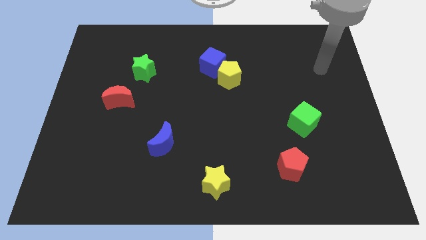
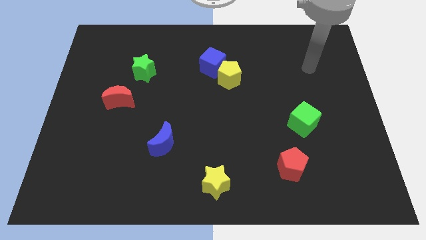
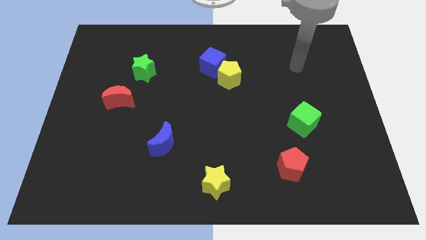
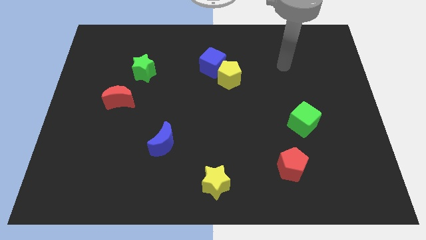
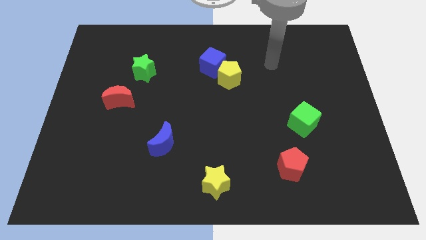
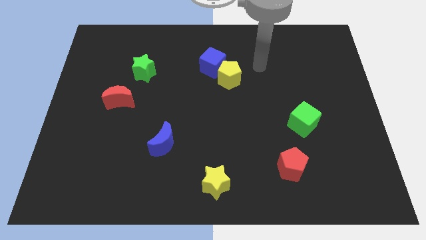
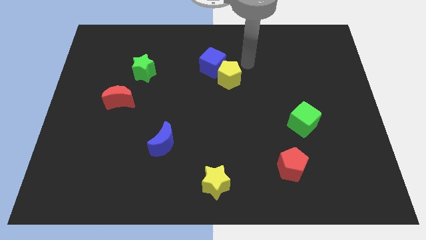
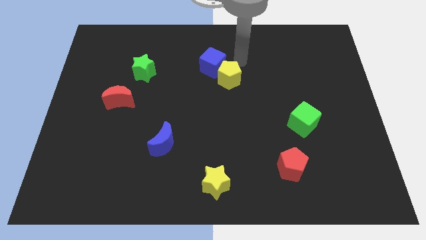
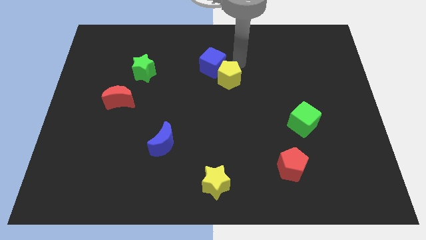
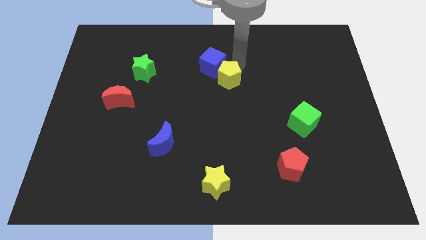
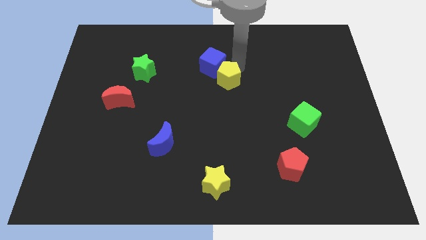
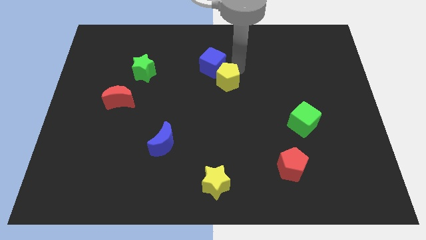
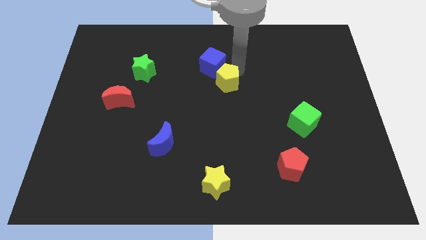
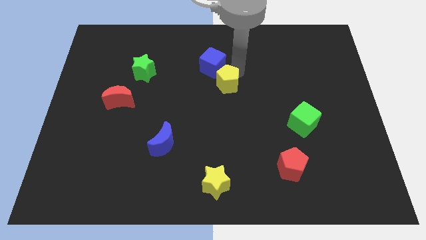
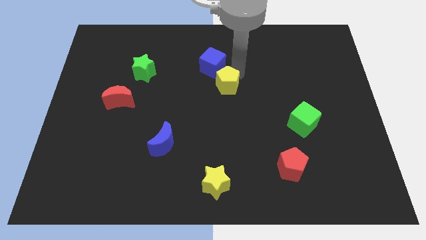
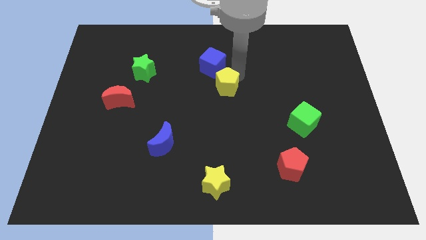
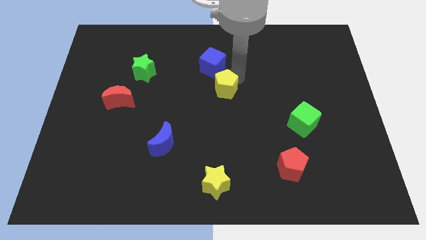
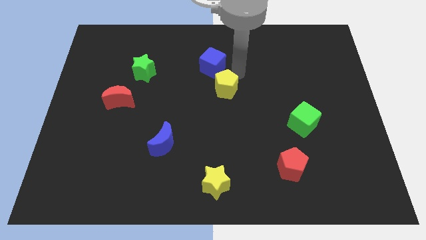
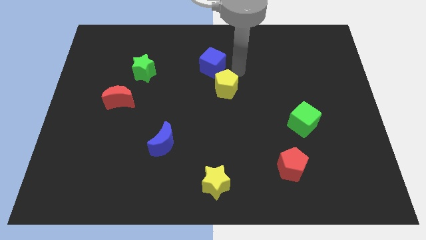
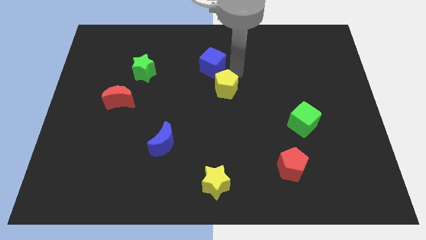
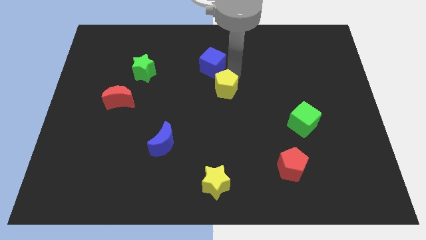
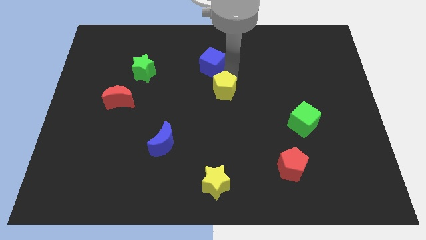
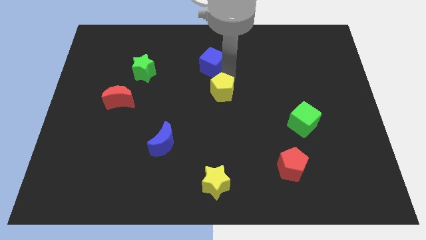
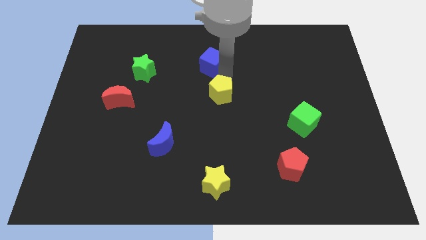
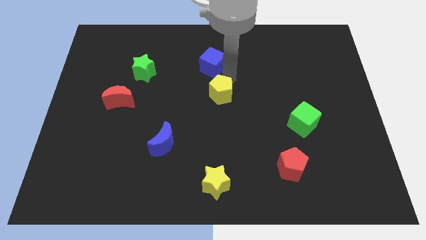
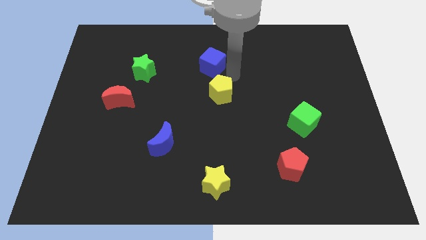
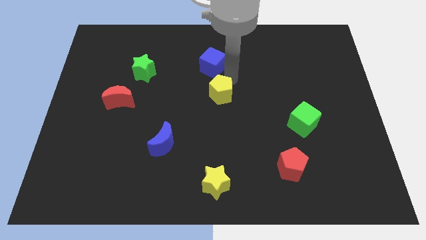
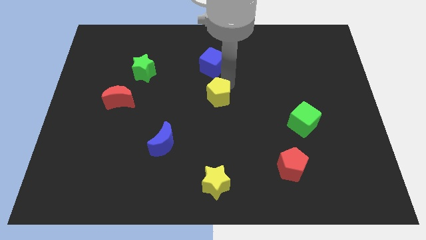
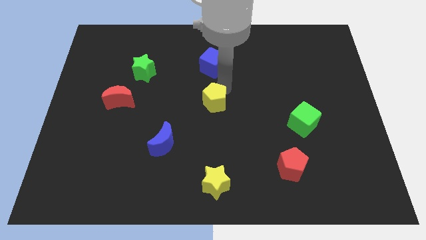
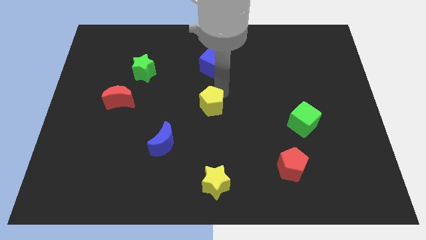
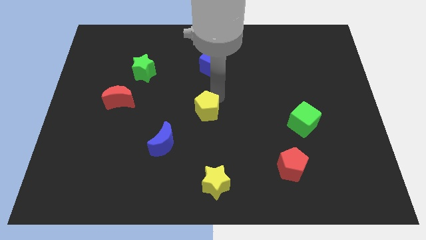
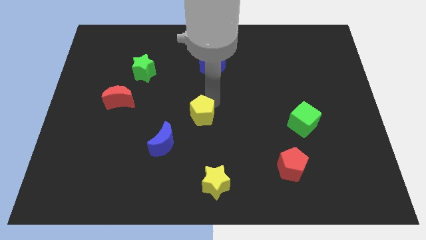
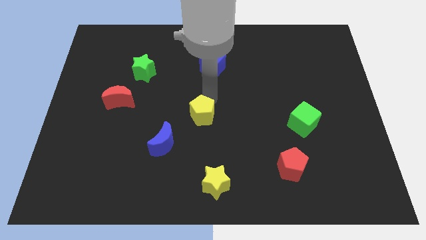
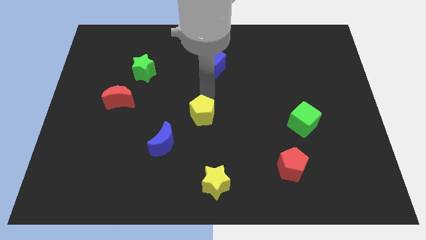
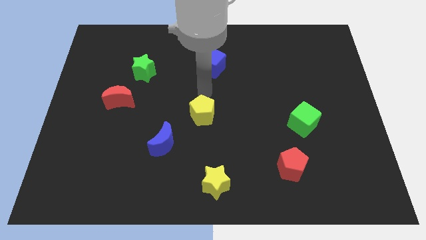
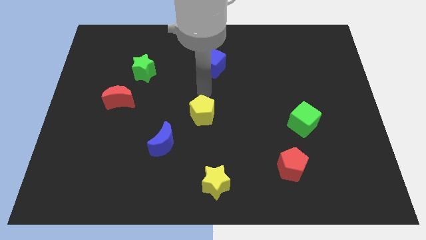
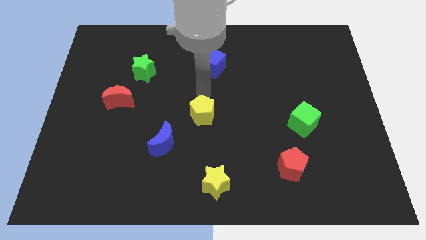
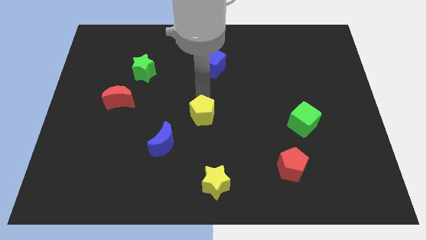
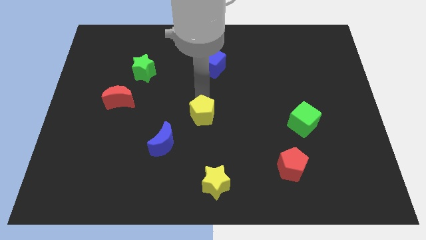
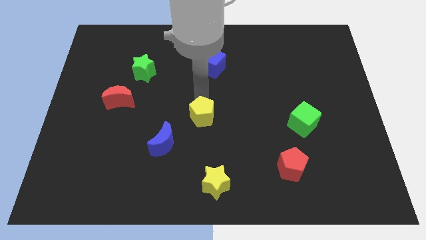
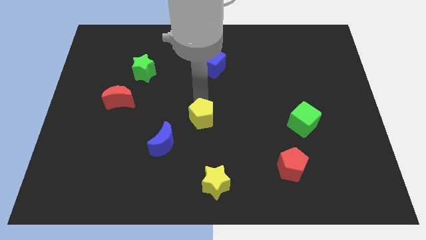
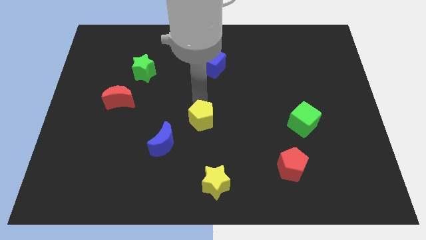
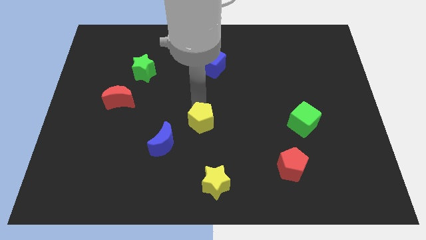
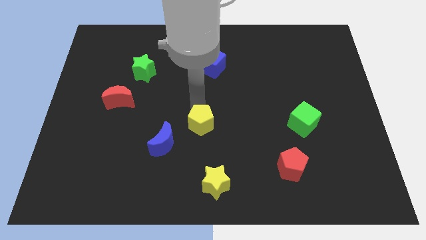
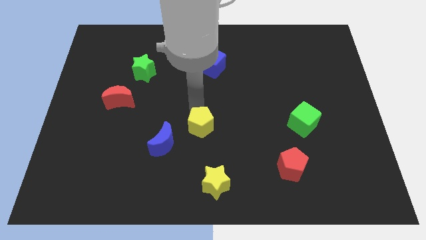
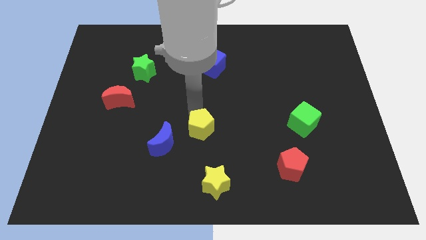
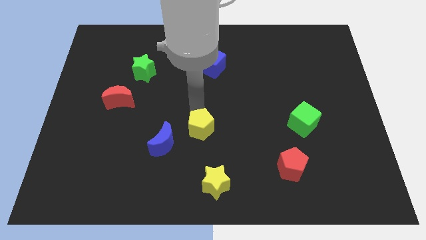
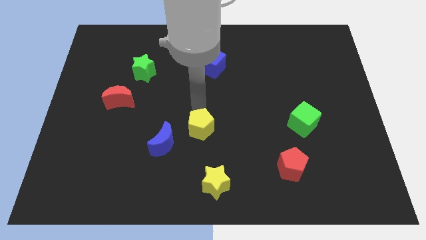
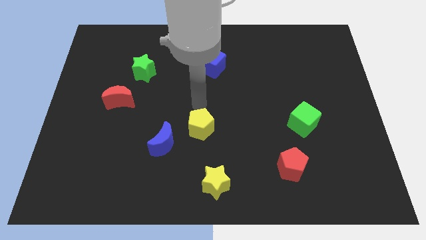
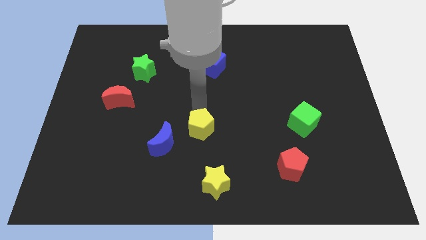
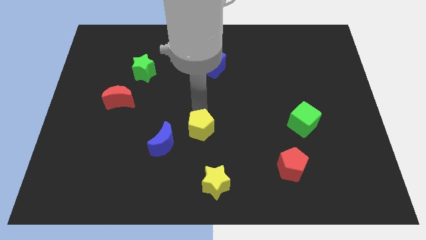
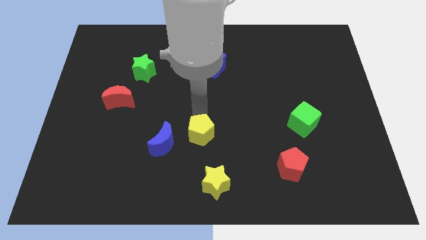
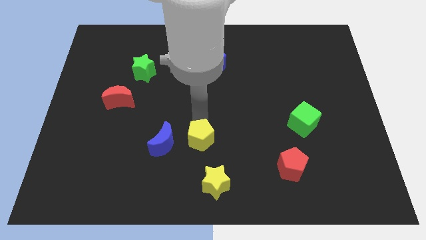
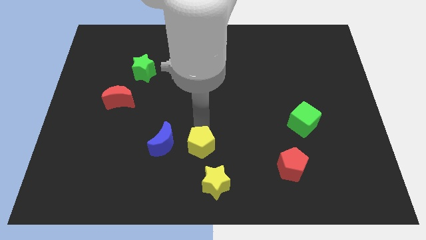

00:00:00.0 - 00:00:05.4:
put the yellow pentagon to the top left of the yellow star

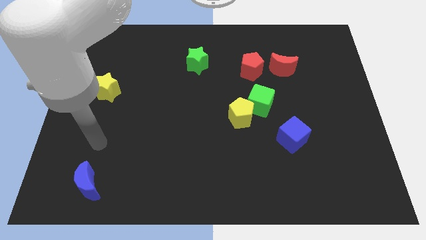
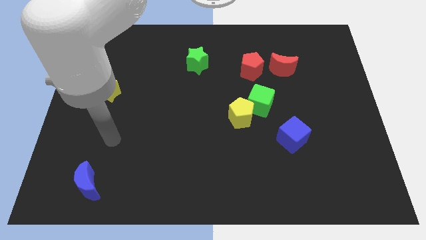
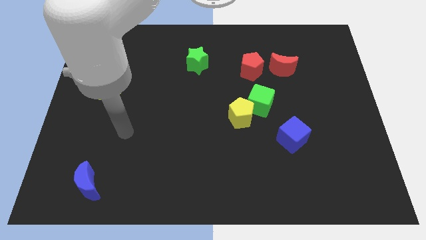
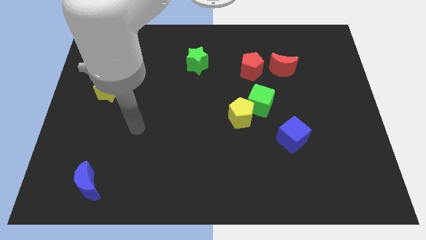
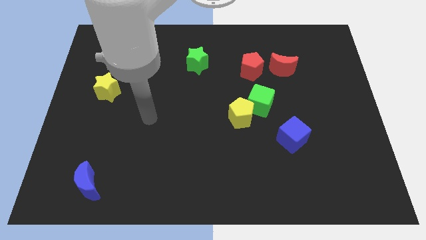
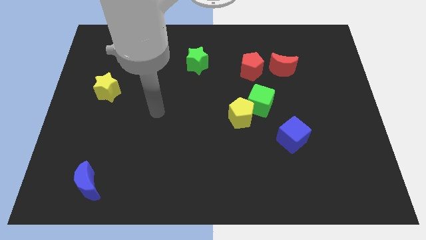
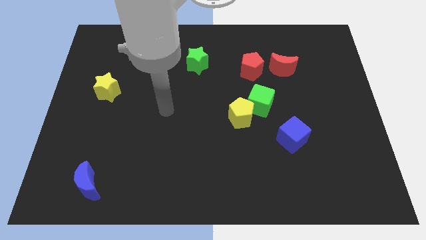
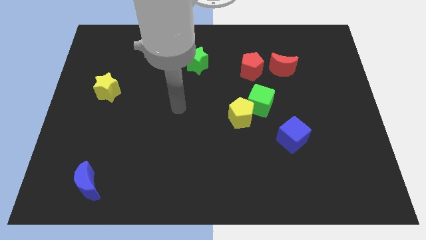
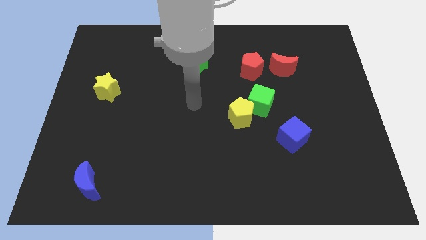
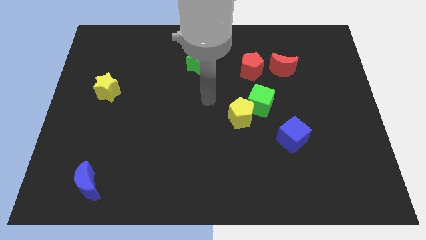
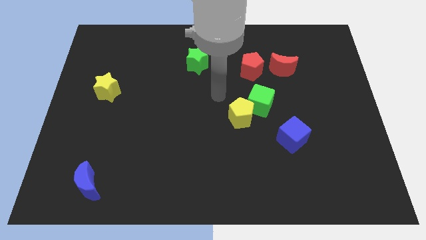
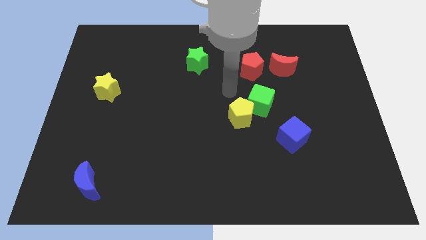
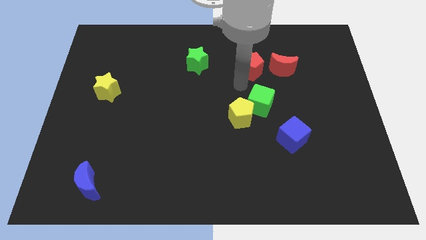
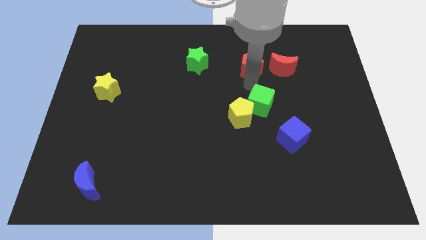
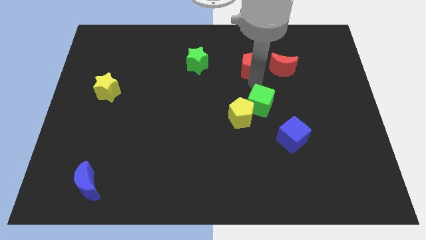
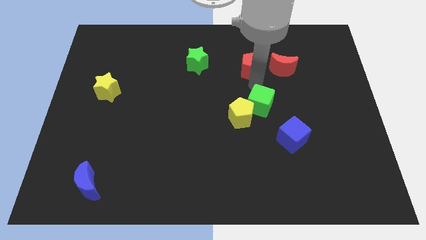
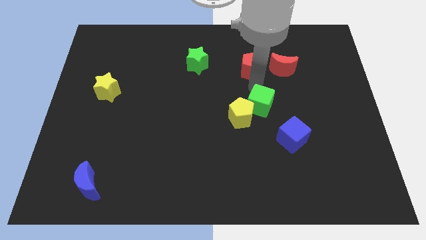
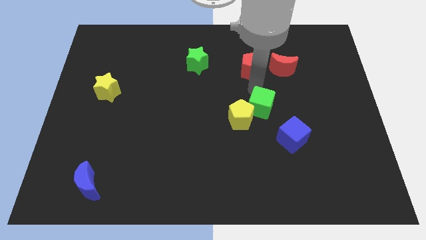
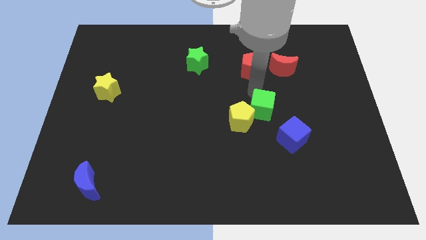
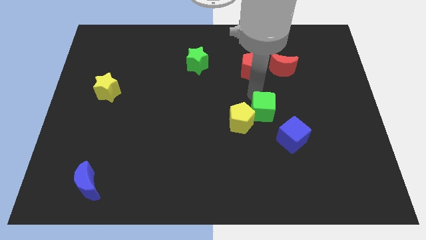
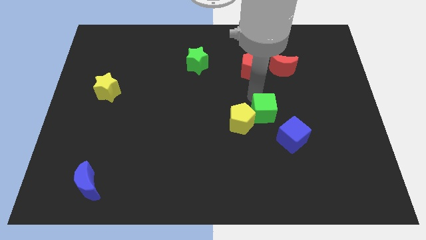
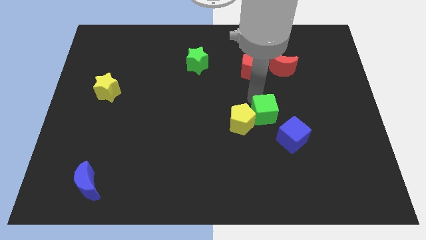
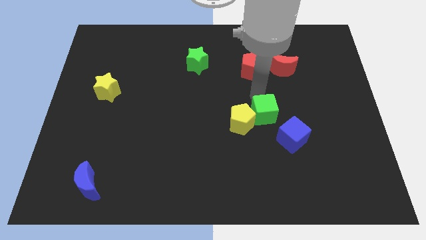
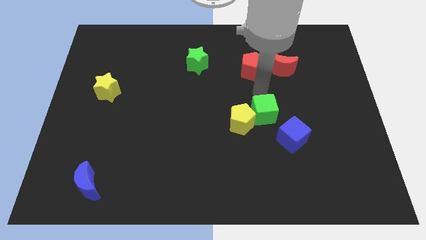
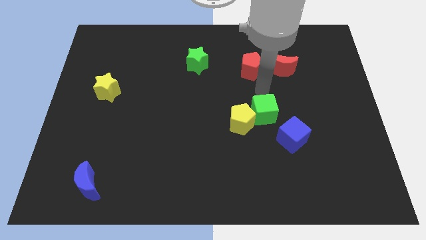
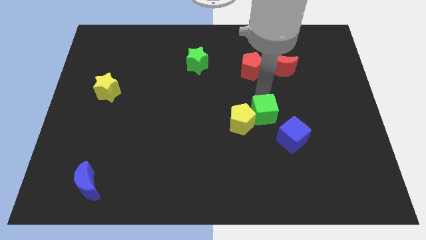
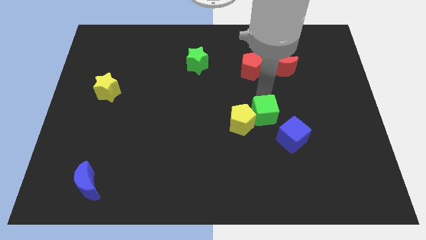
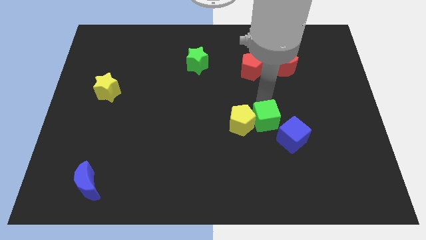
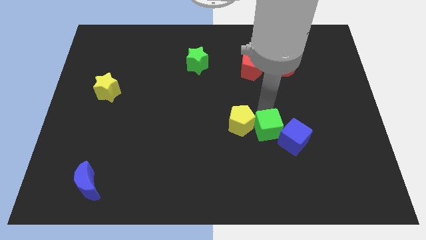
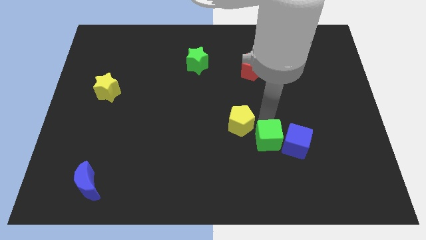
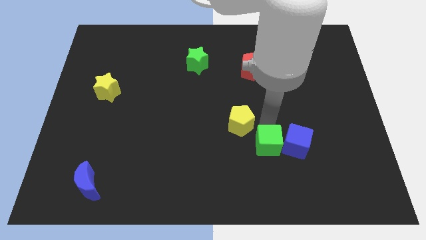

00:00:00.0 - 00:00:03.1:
slide the green cube to the bottom left of the blue cube
